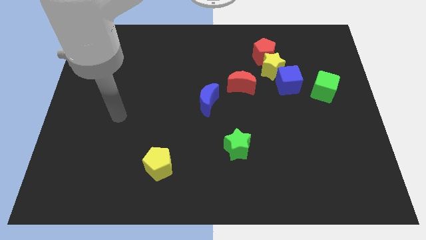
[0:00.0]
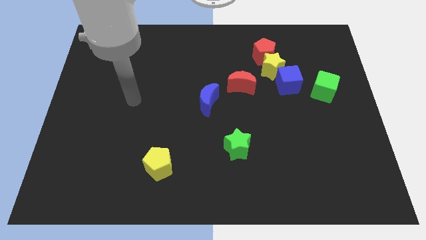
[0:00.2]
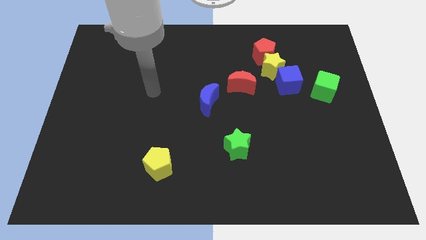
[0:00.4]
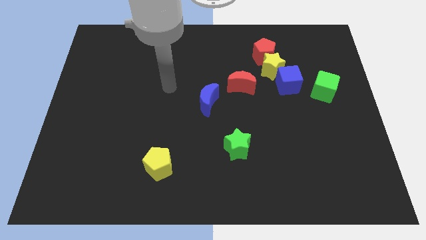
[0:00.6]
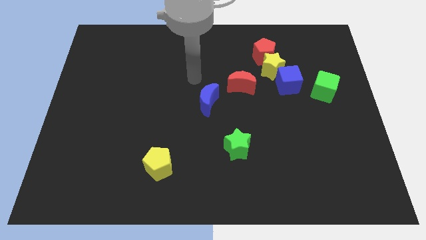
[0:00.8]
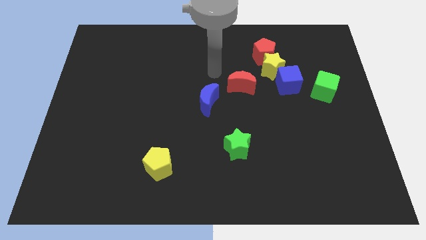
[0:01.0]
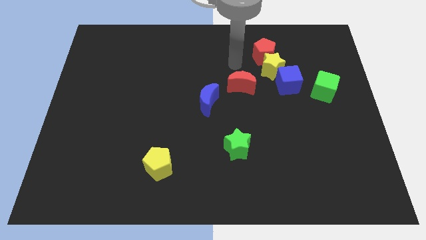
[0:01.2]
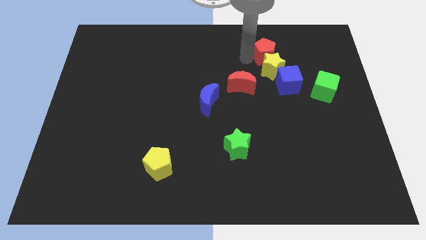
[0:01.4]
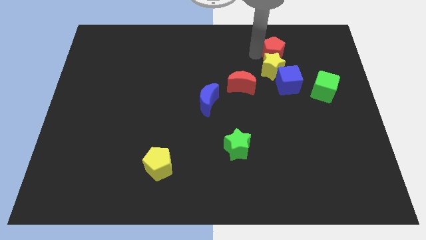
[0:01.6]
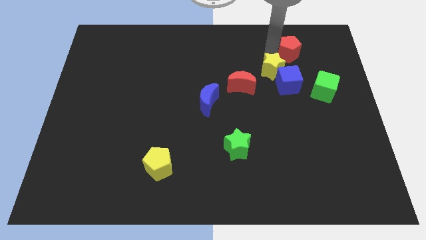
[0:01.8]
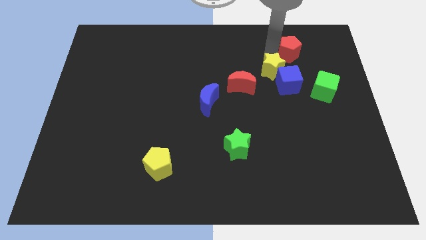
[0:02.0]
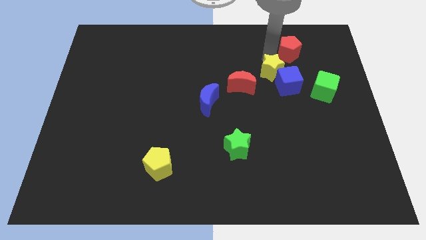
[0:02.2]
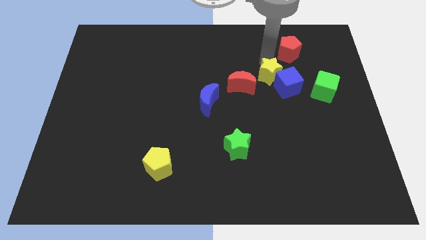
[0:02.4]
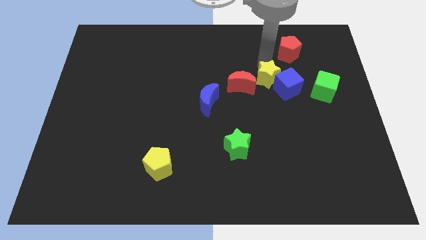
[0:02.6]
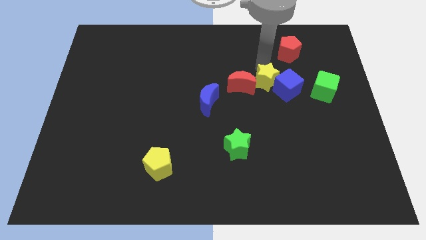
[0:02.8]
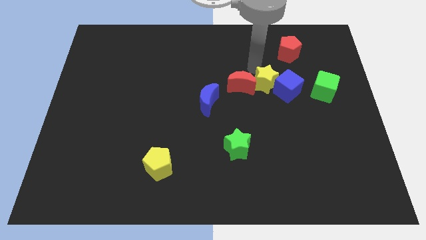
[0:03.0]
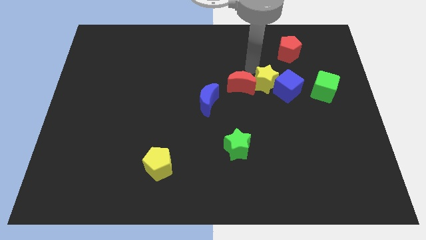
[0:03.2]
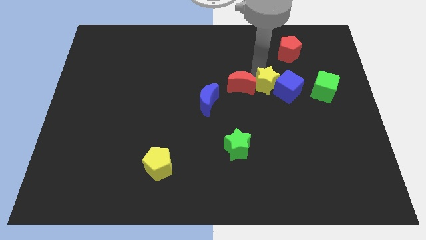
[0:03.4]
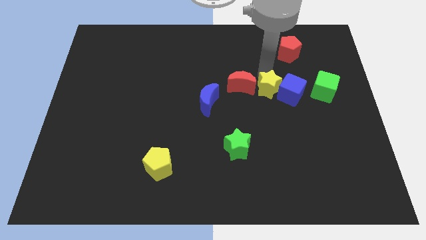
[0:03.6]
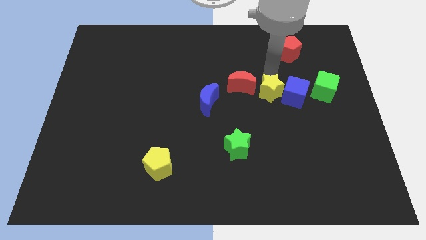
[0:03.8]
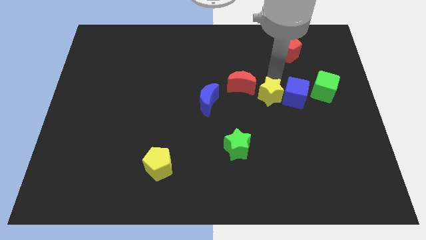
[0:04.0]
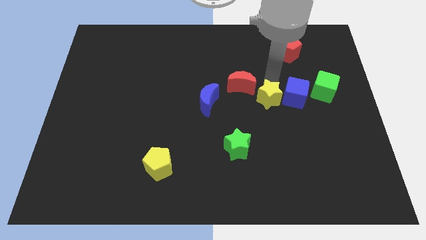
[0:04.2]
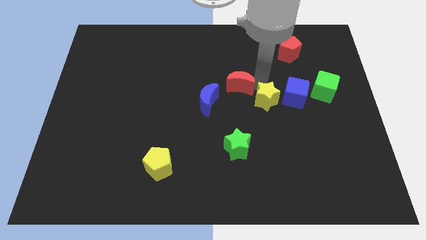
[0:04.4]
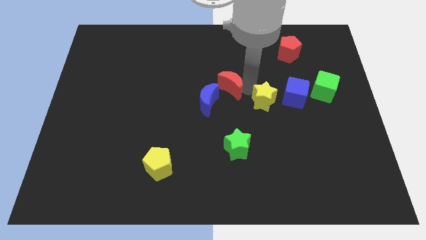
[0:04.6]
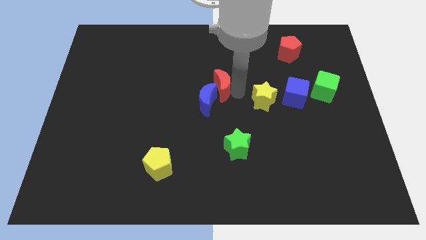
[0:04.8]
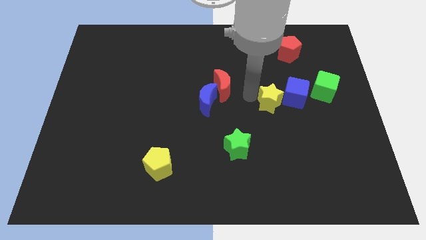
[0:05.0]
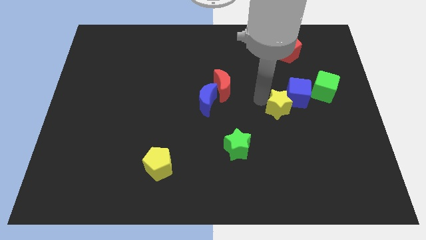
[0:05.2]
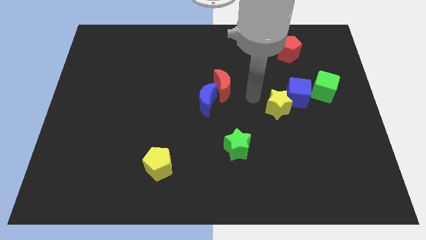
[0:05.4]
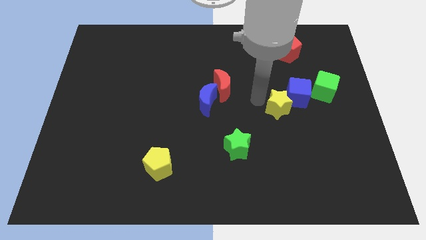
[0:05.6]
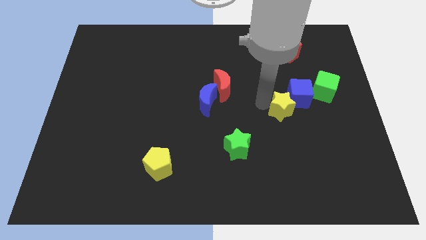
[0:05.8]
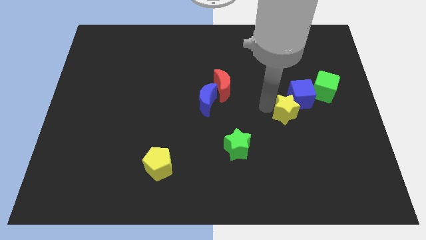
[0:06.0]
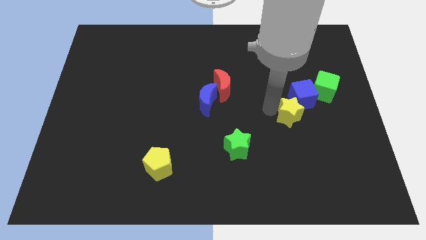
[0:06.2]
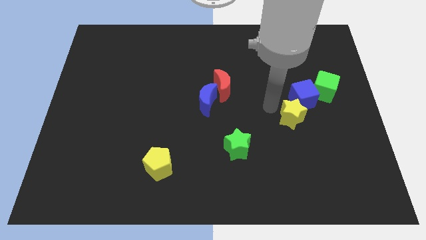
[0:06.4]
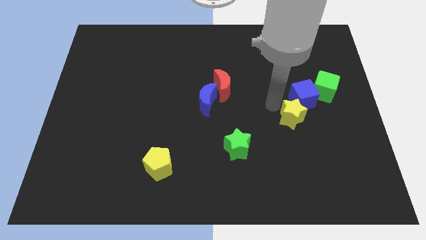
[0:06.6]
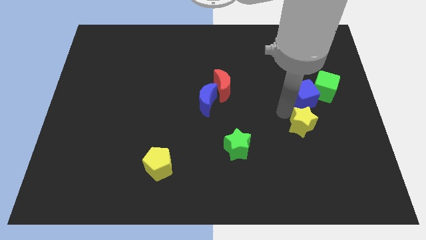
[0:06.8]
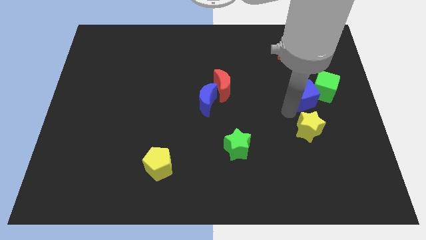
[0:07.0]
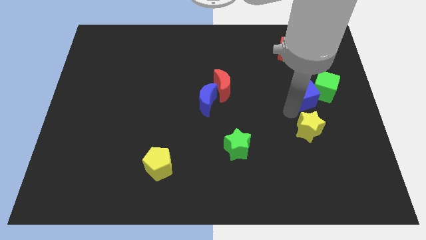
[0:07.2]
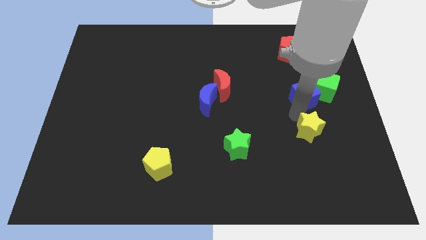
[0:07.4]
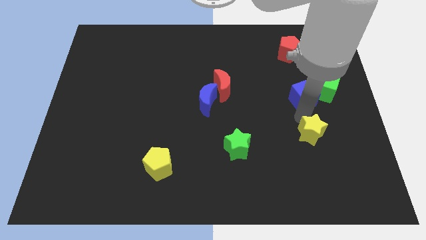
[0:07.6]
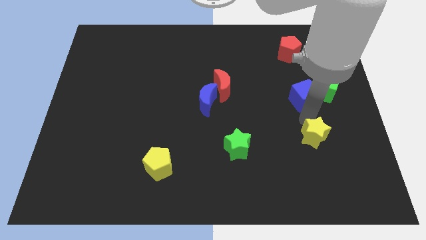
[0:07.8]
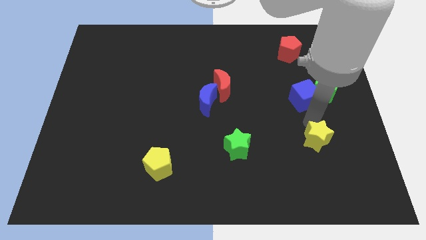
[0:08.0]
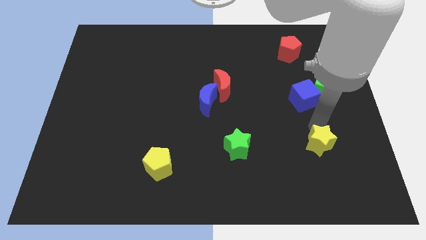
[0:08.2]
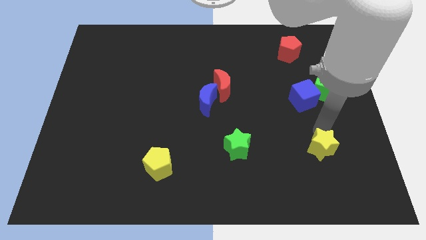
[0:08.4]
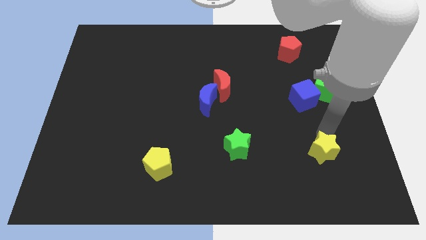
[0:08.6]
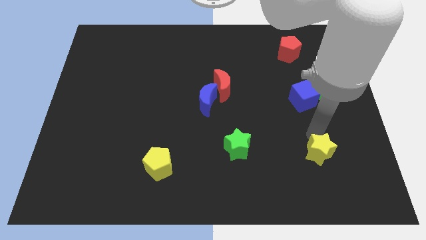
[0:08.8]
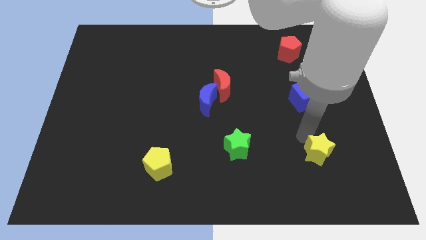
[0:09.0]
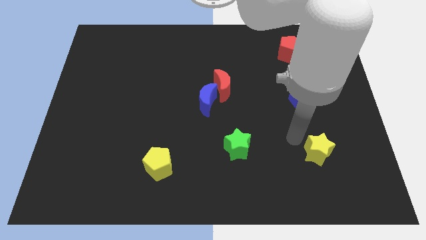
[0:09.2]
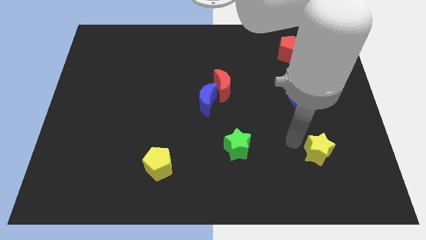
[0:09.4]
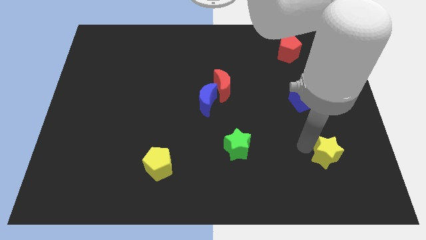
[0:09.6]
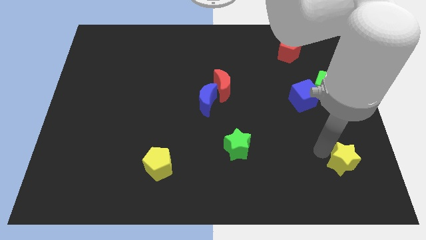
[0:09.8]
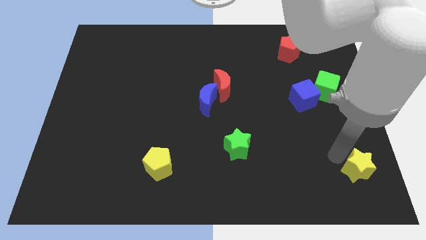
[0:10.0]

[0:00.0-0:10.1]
slide the yellow star to the bottom right

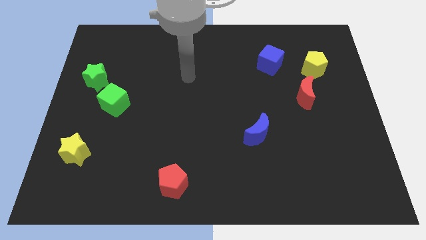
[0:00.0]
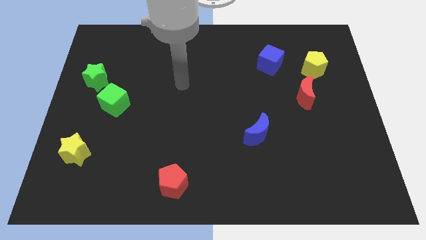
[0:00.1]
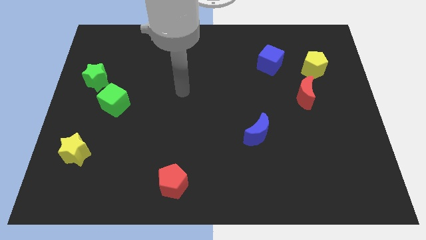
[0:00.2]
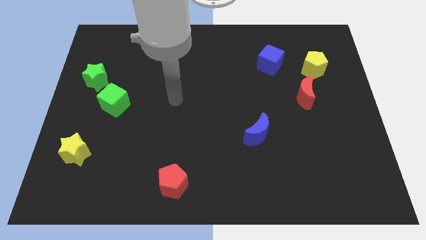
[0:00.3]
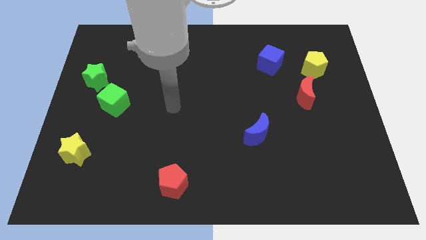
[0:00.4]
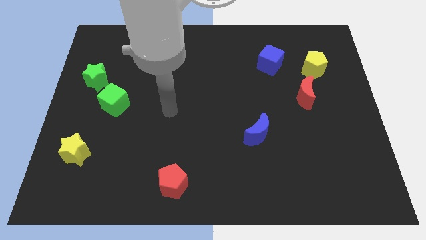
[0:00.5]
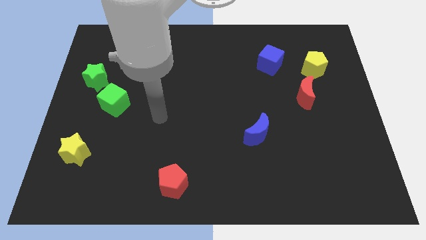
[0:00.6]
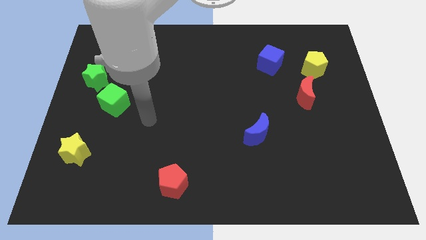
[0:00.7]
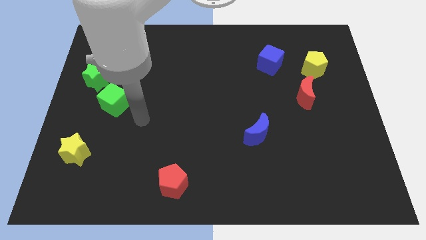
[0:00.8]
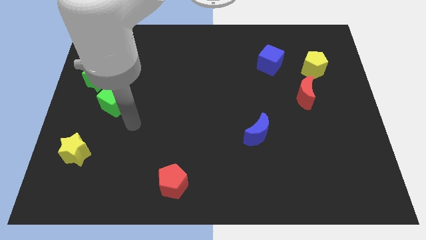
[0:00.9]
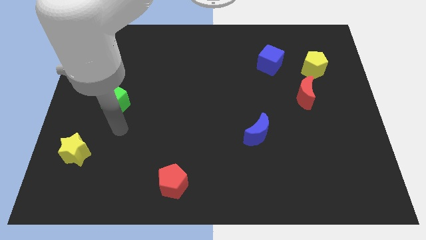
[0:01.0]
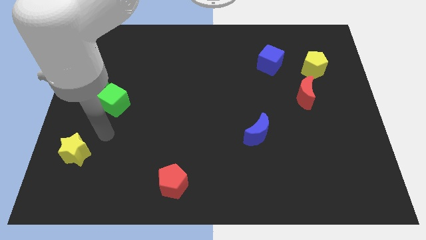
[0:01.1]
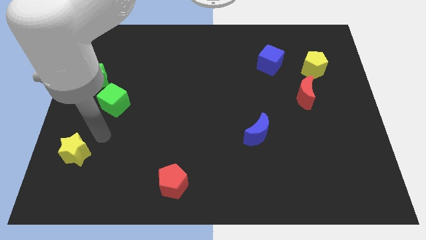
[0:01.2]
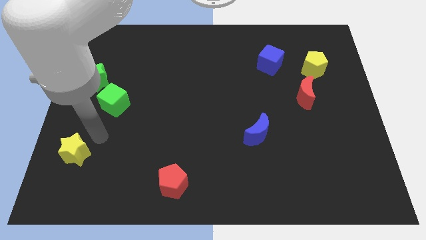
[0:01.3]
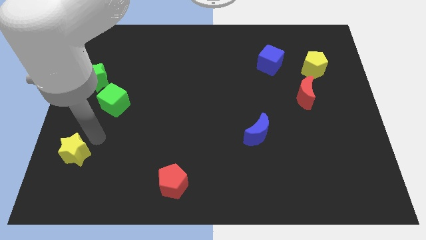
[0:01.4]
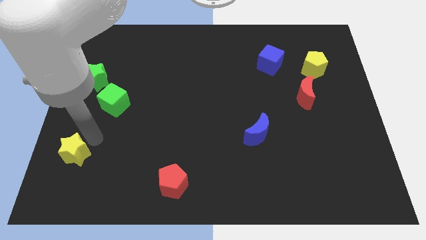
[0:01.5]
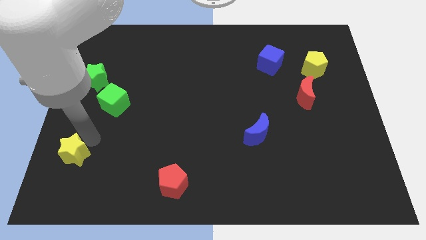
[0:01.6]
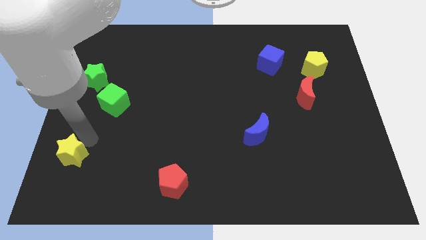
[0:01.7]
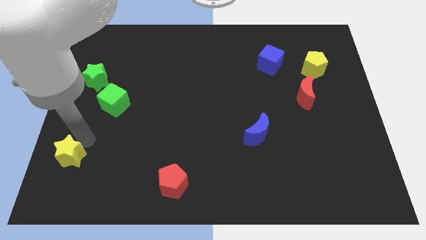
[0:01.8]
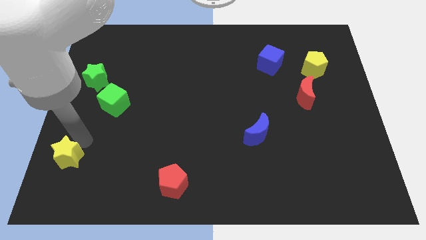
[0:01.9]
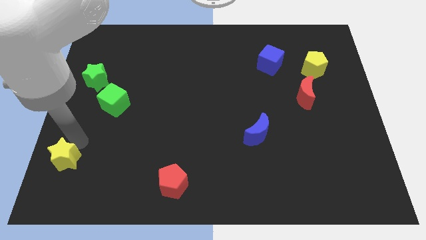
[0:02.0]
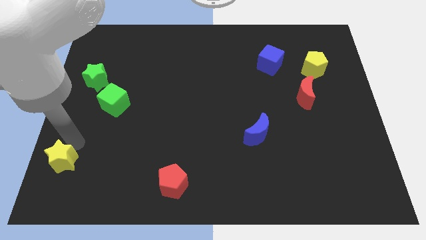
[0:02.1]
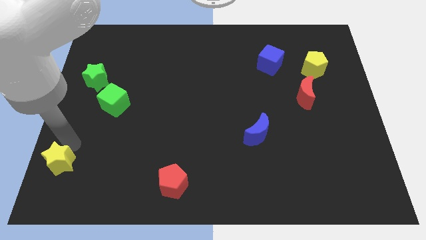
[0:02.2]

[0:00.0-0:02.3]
slide the yellow star to the bottom left corner
